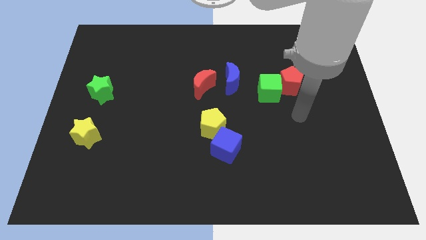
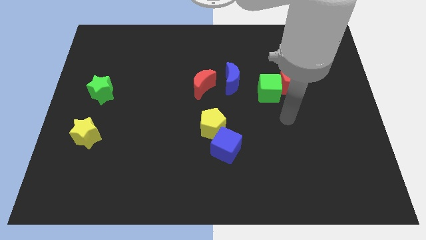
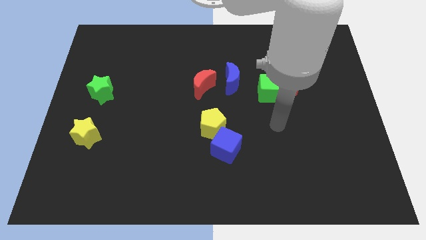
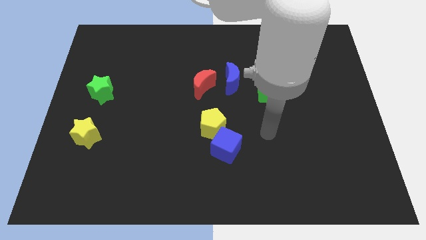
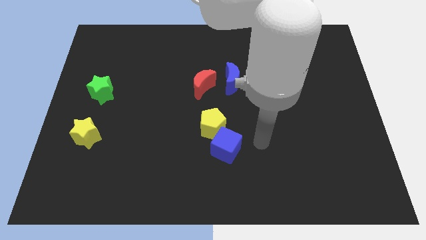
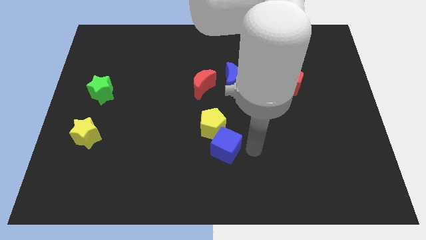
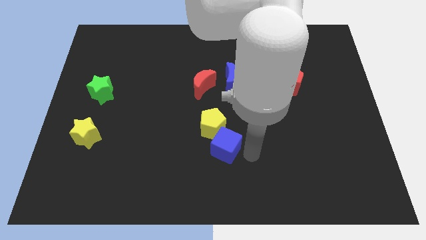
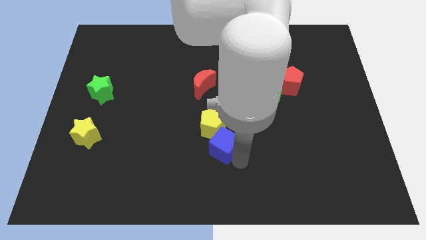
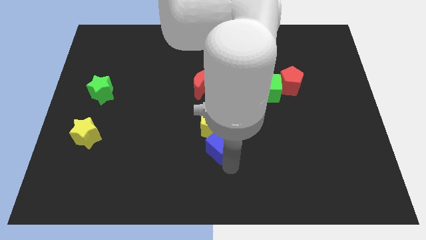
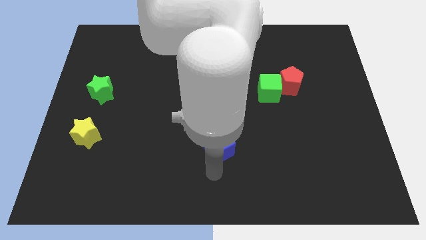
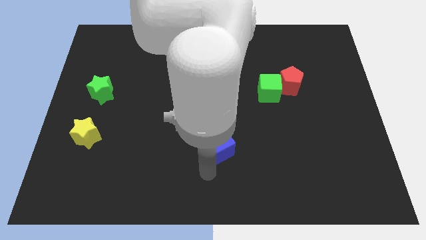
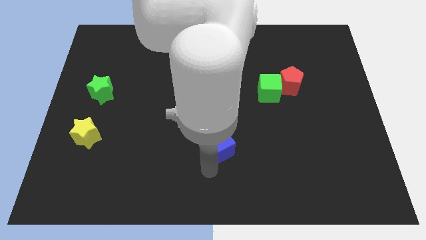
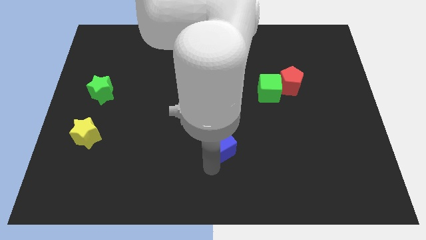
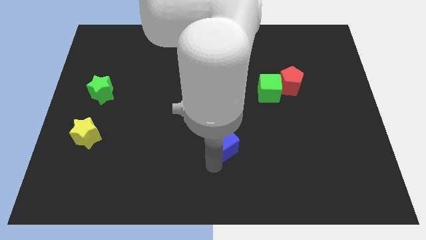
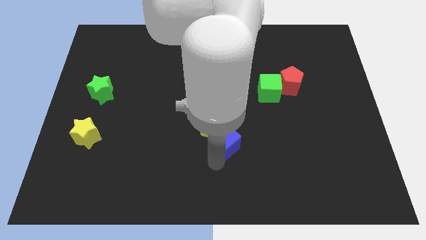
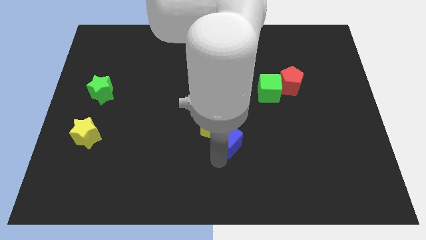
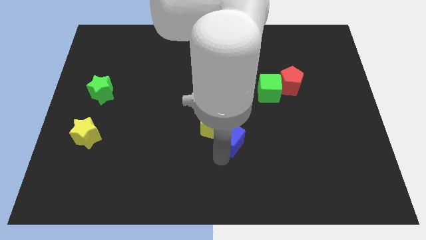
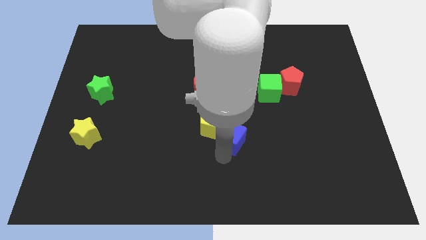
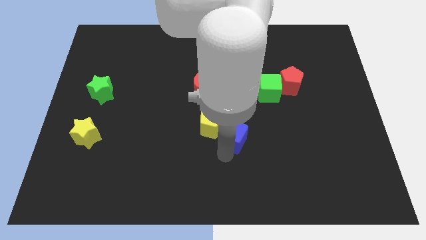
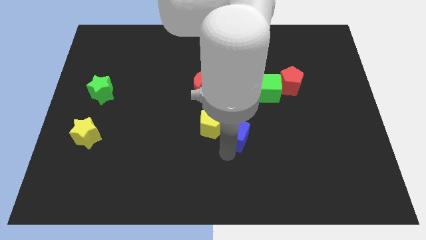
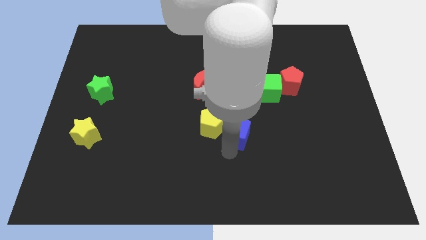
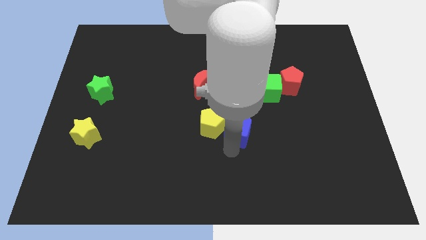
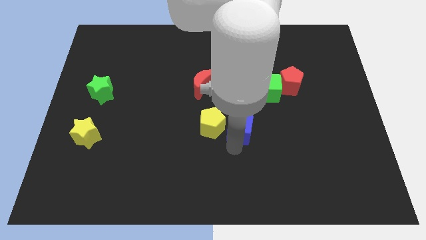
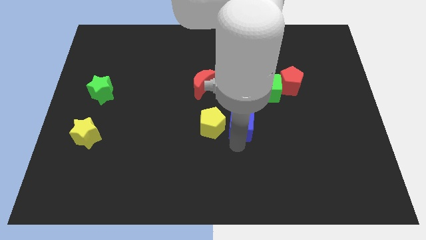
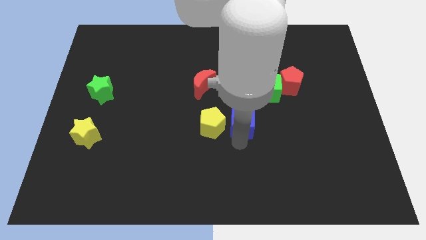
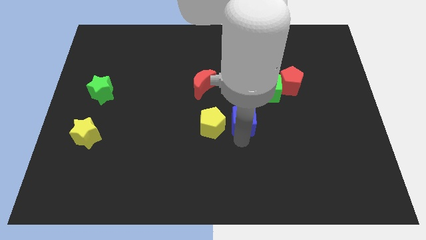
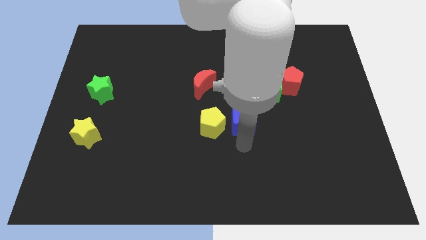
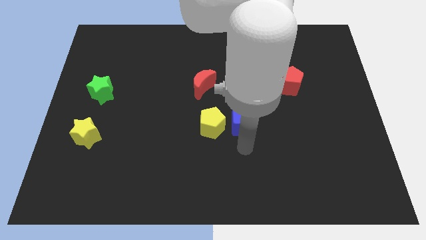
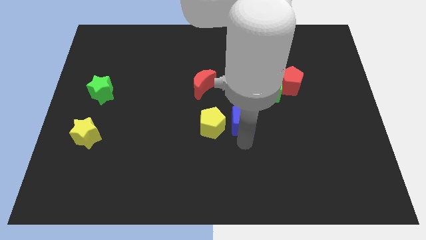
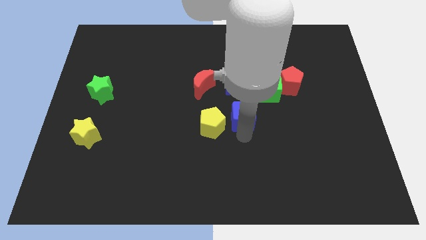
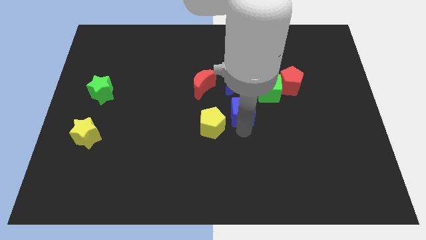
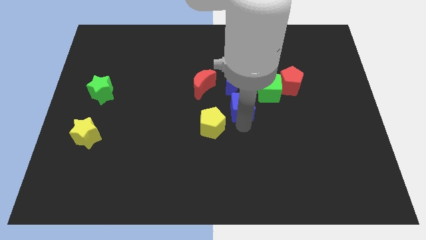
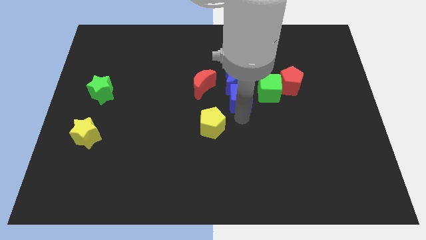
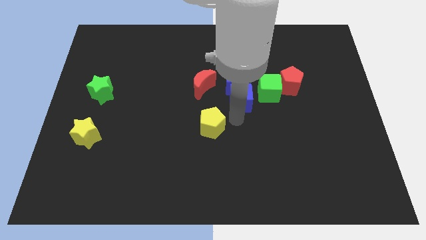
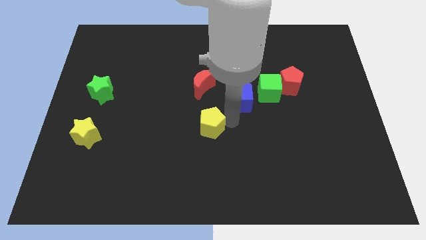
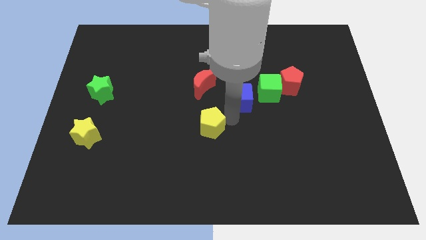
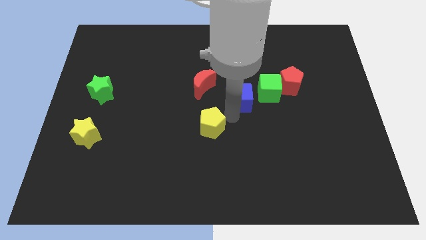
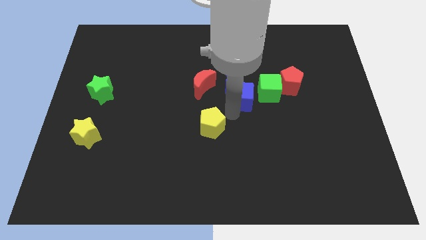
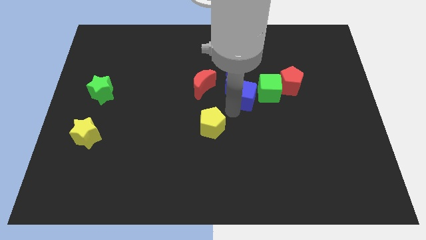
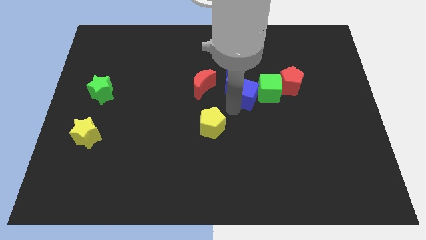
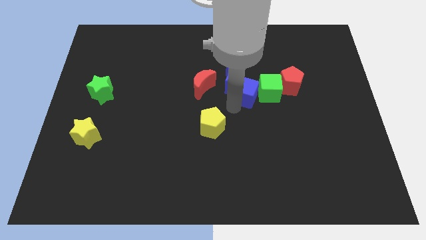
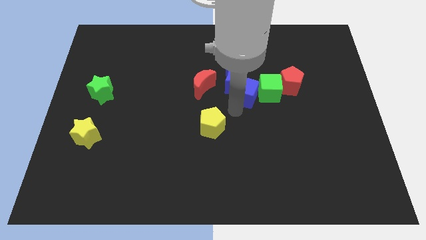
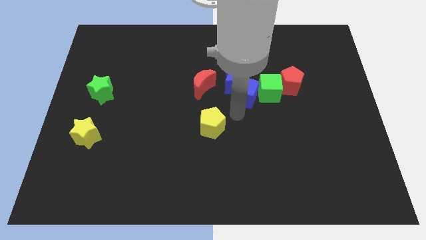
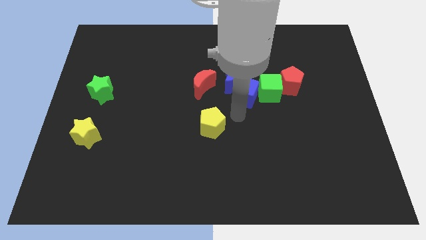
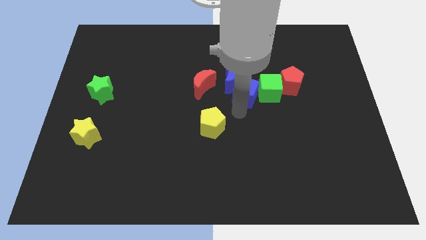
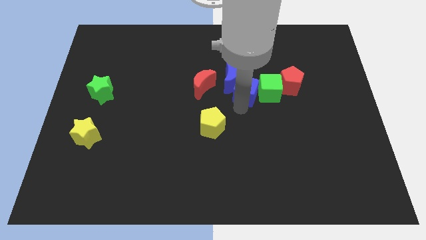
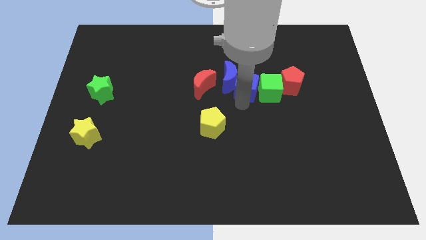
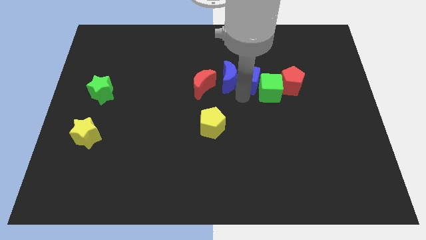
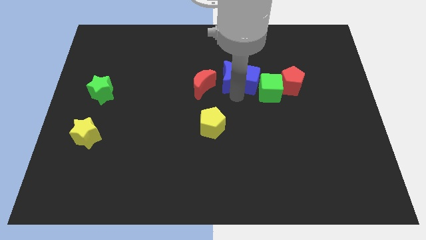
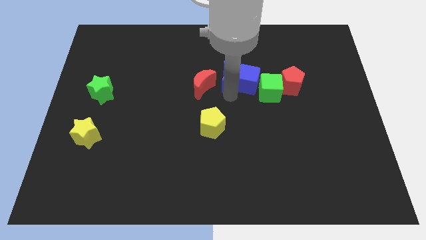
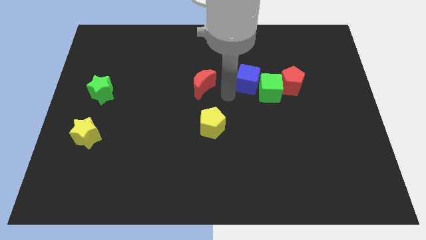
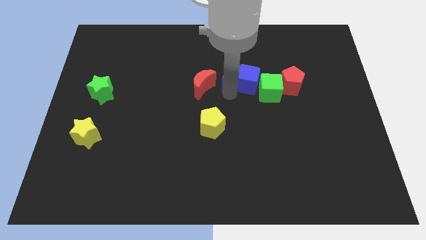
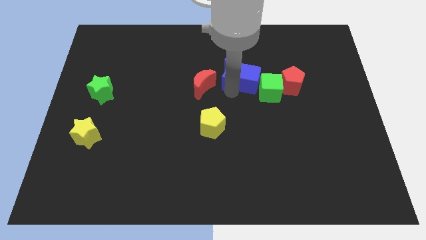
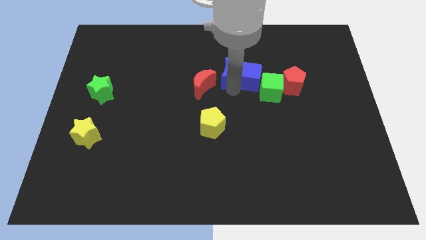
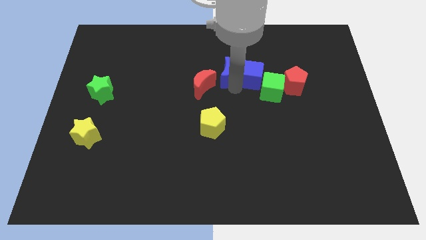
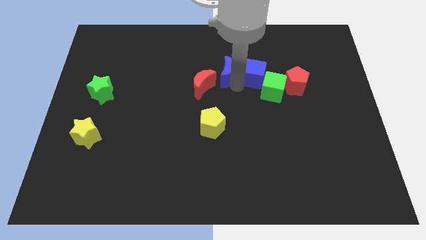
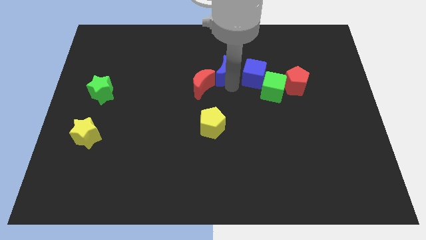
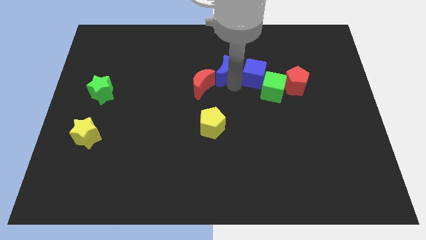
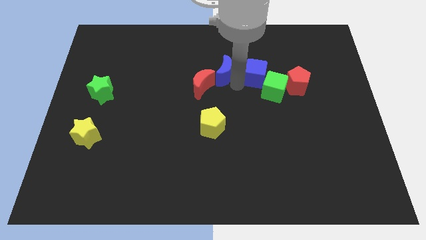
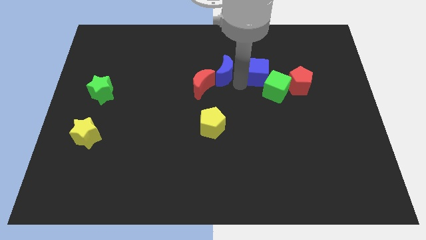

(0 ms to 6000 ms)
slide the blue cube to the top left of the red pentagon

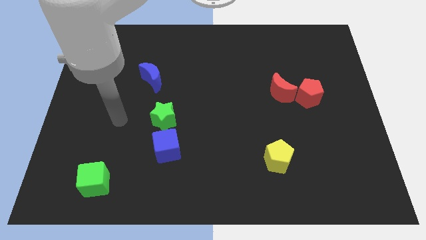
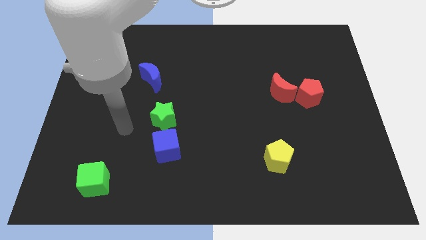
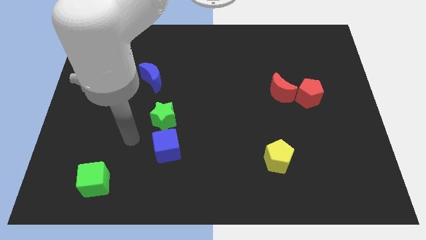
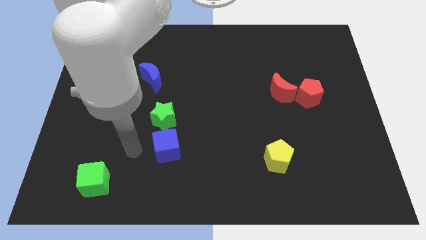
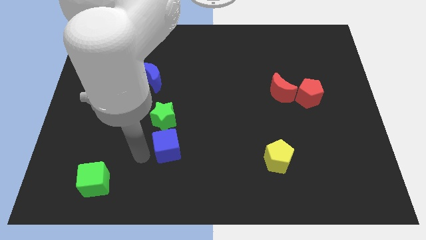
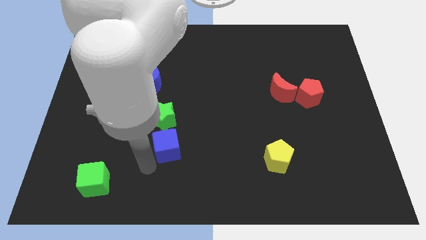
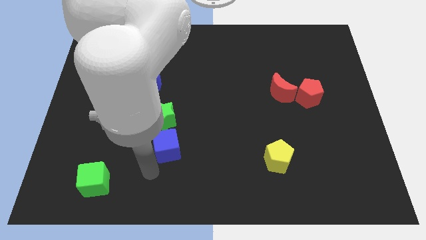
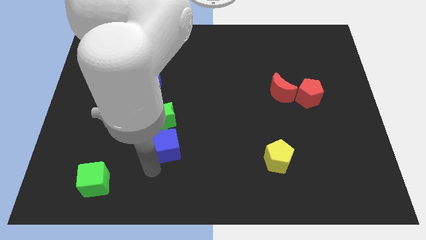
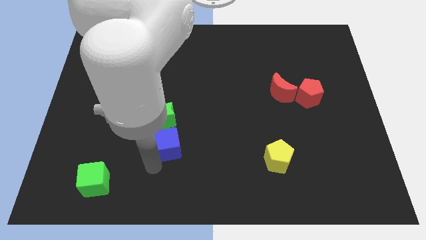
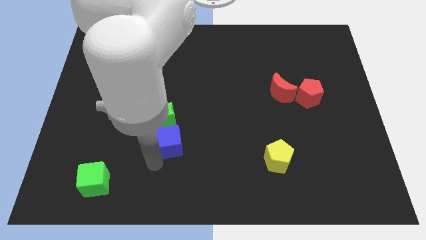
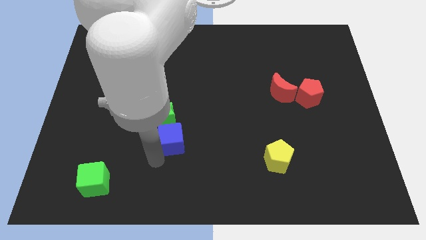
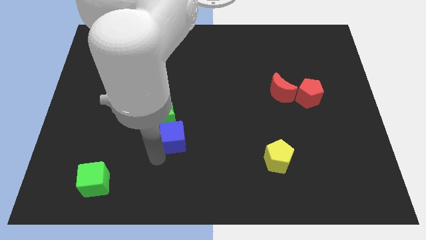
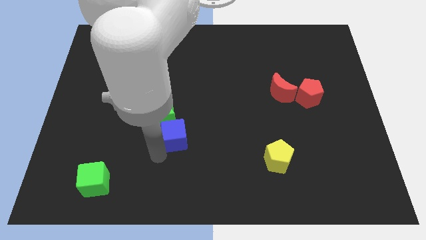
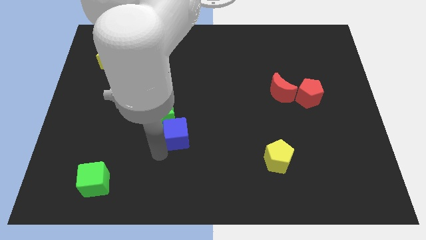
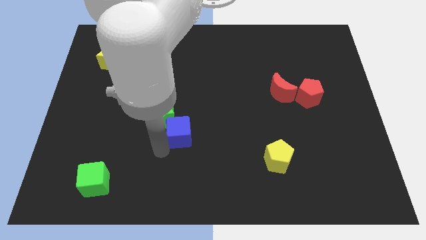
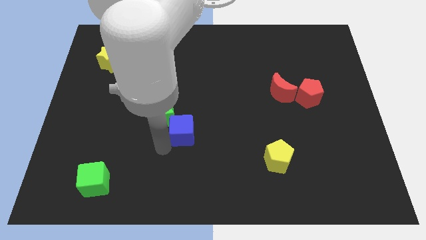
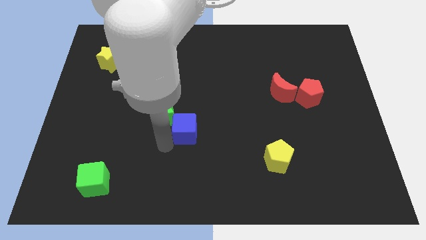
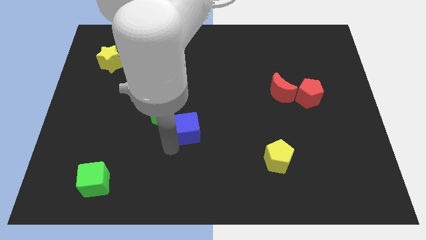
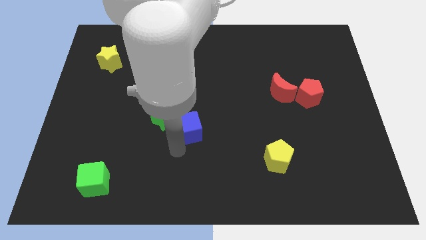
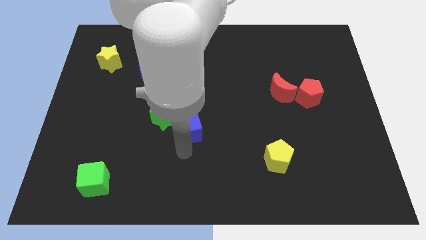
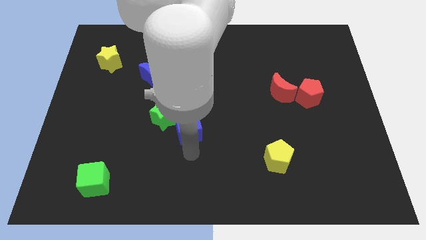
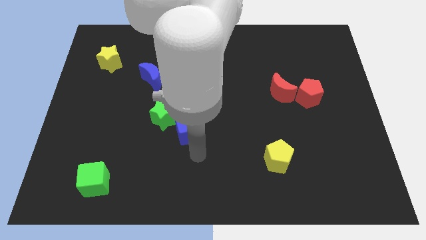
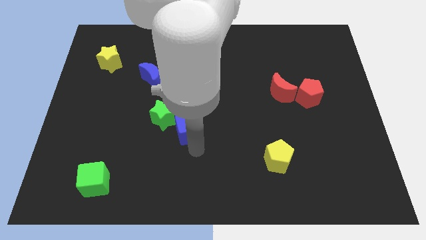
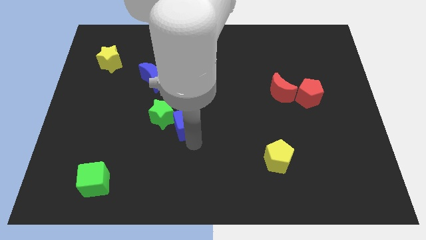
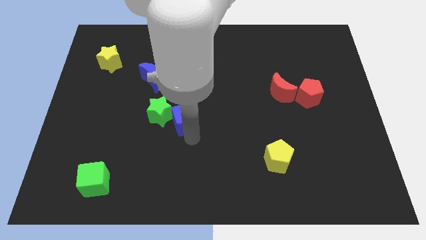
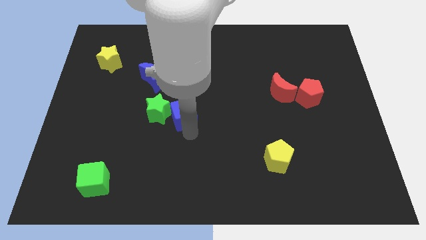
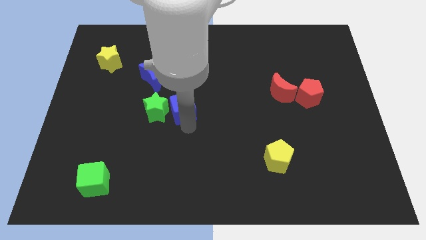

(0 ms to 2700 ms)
move the blue cube to the bottom right side of the blue moon
